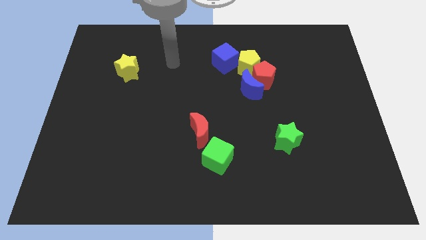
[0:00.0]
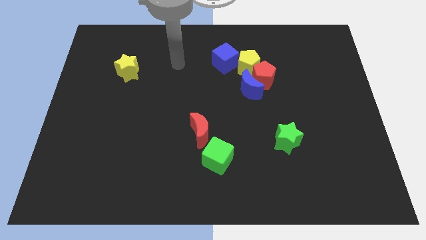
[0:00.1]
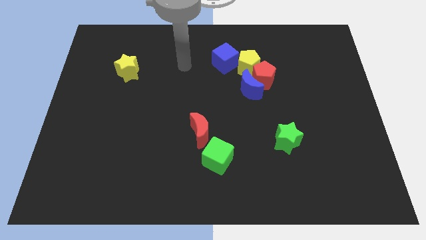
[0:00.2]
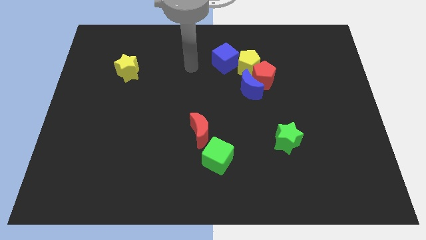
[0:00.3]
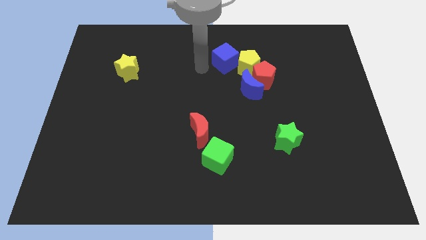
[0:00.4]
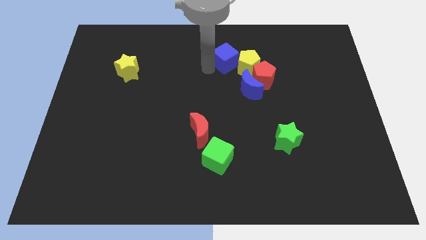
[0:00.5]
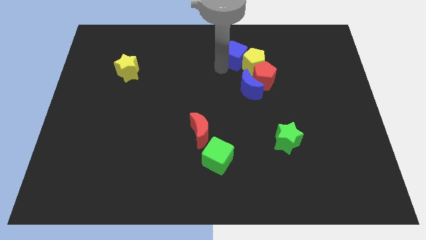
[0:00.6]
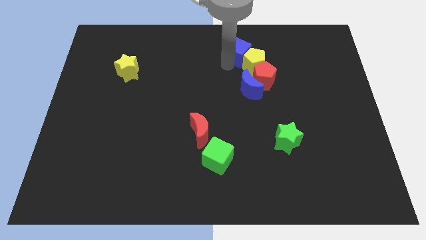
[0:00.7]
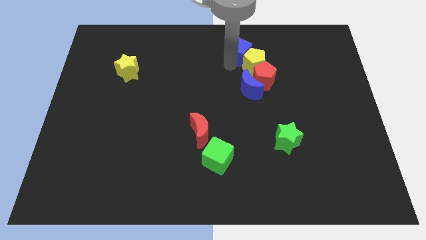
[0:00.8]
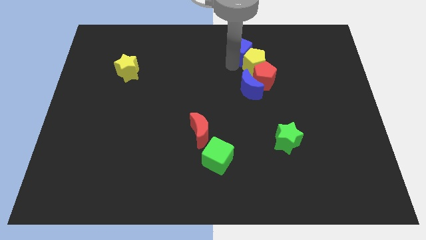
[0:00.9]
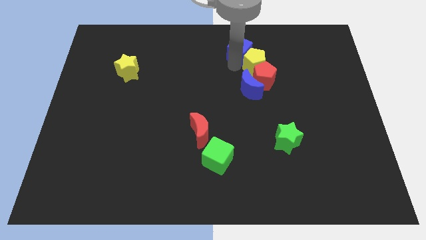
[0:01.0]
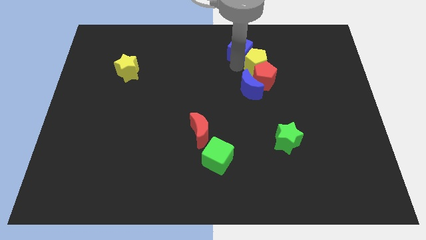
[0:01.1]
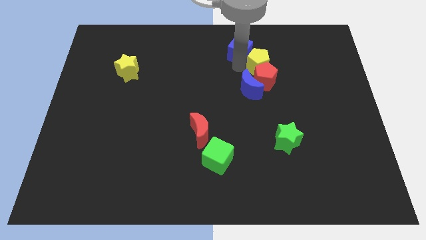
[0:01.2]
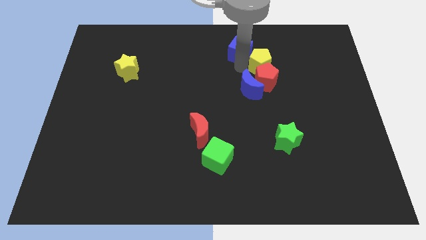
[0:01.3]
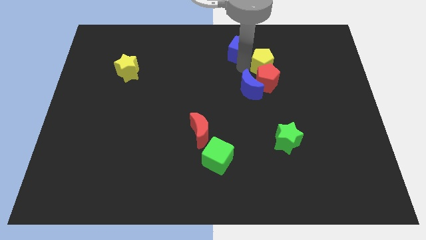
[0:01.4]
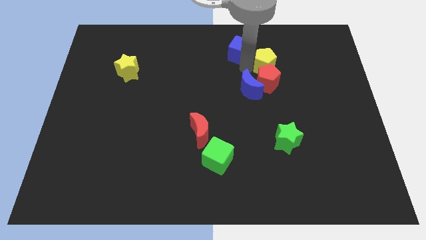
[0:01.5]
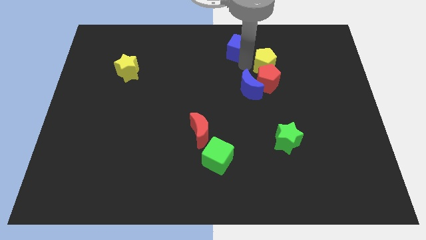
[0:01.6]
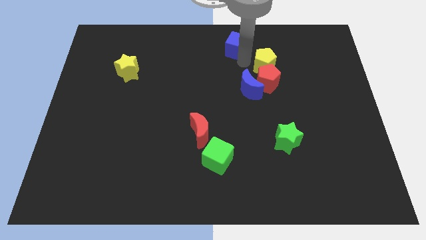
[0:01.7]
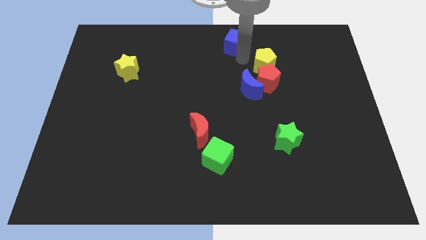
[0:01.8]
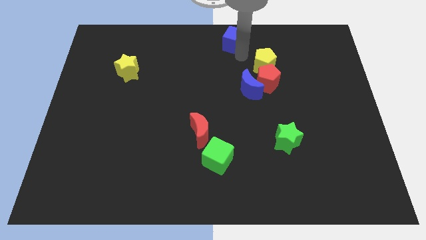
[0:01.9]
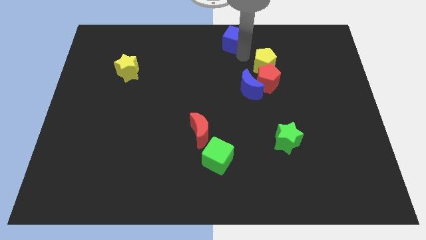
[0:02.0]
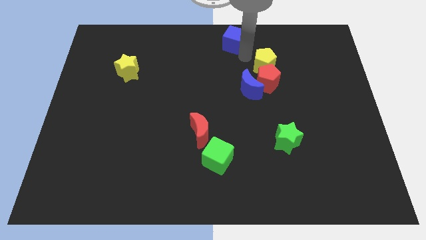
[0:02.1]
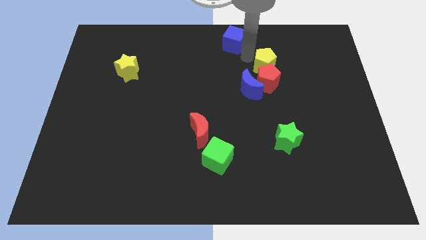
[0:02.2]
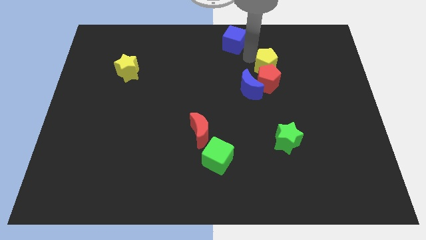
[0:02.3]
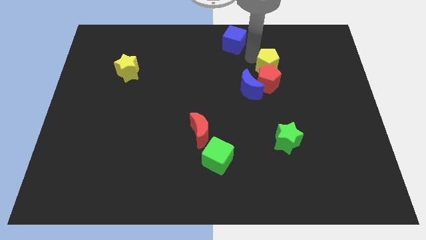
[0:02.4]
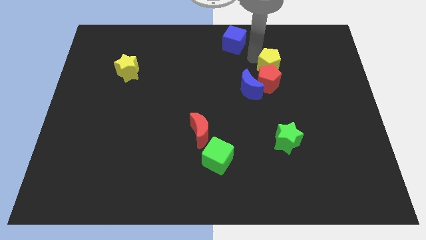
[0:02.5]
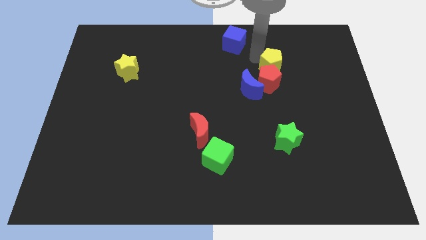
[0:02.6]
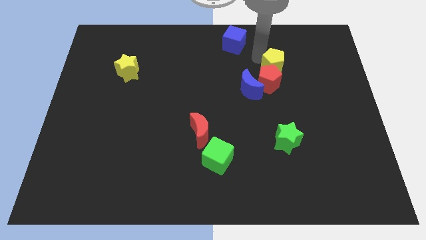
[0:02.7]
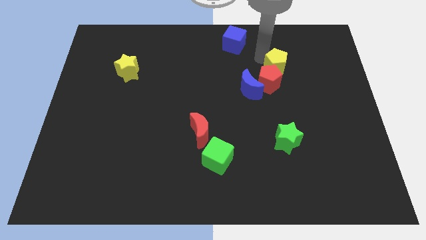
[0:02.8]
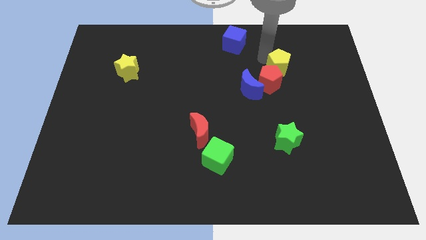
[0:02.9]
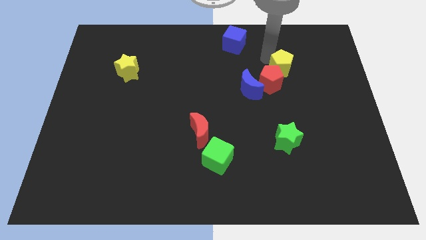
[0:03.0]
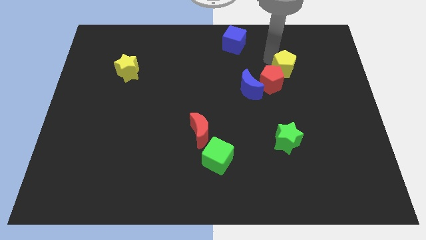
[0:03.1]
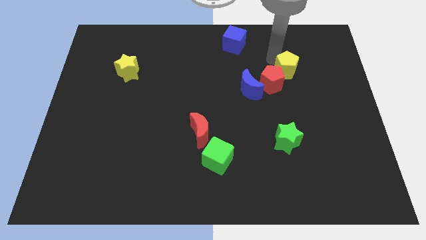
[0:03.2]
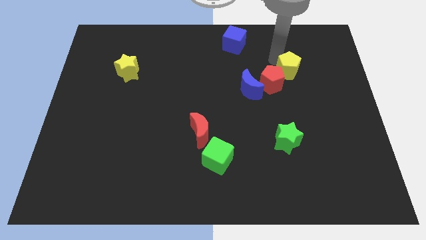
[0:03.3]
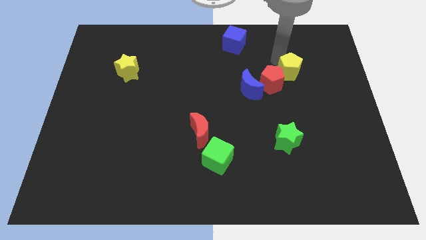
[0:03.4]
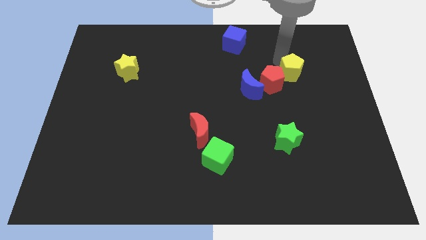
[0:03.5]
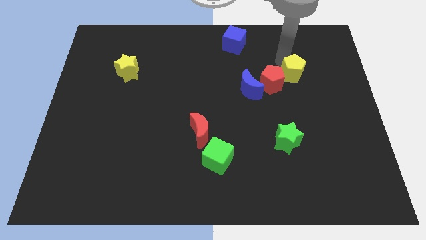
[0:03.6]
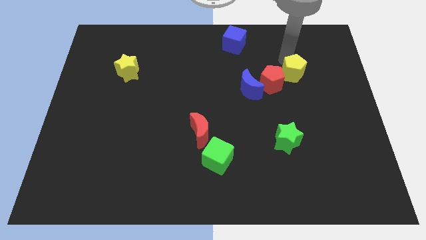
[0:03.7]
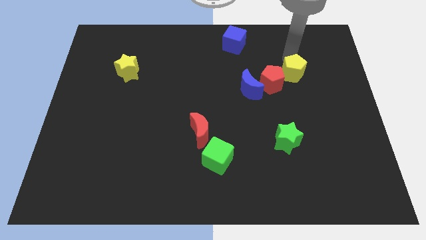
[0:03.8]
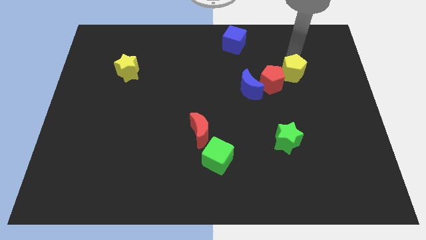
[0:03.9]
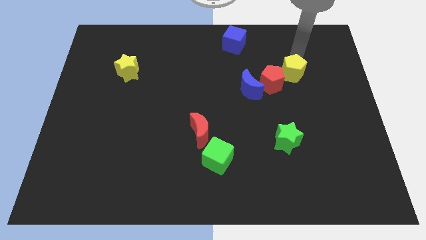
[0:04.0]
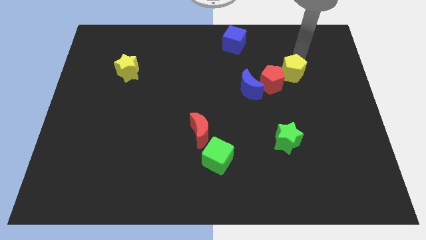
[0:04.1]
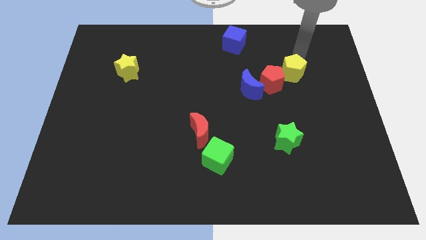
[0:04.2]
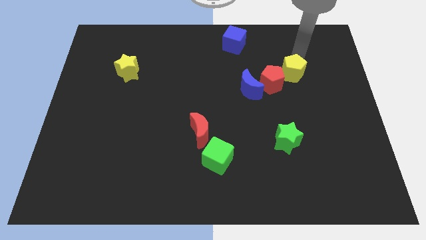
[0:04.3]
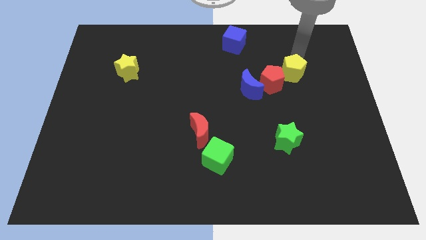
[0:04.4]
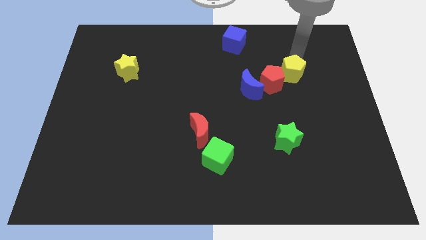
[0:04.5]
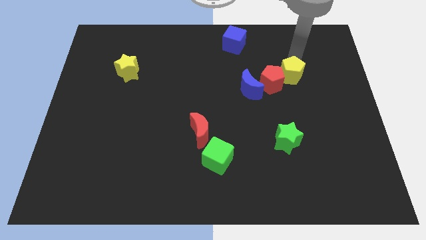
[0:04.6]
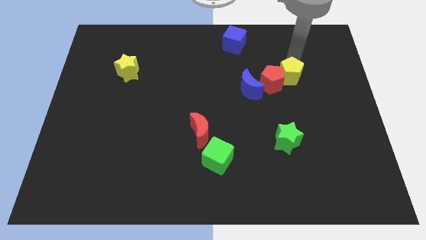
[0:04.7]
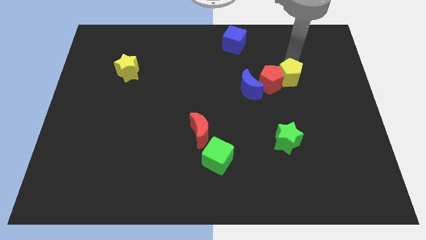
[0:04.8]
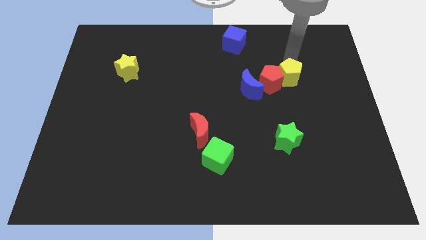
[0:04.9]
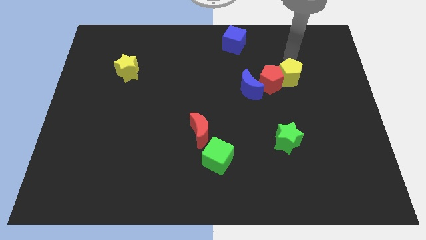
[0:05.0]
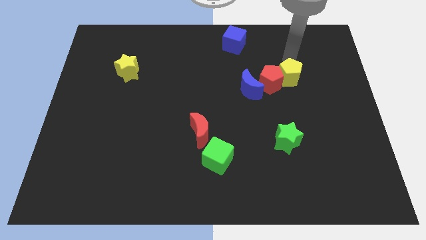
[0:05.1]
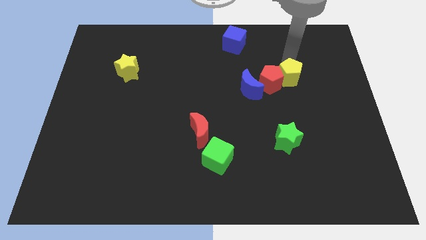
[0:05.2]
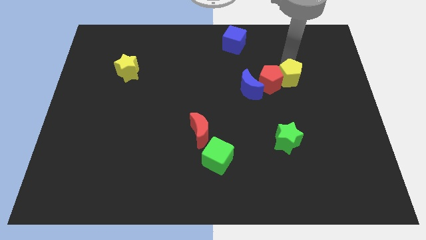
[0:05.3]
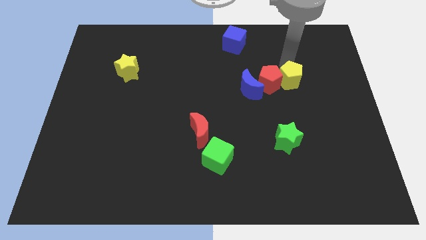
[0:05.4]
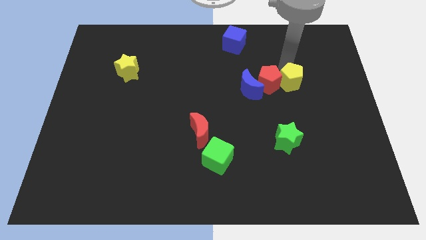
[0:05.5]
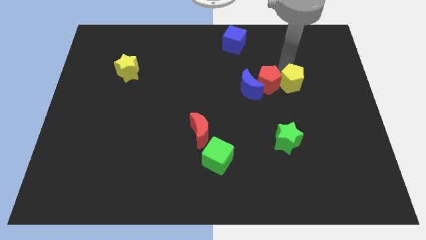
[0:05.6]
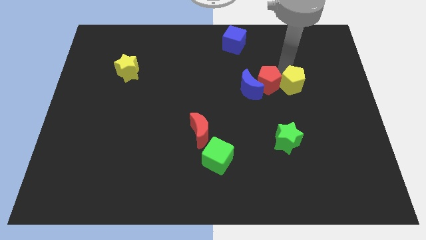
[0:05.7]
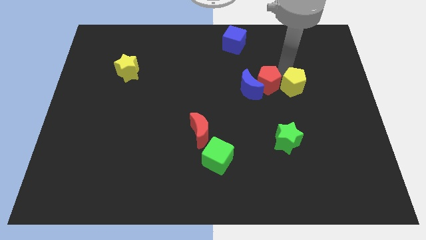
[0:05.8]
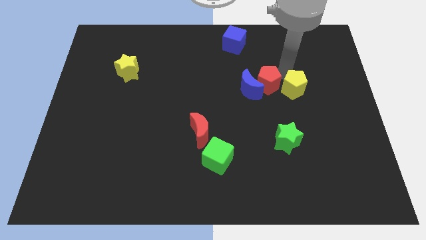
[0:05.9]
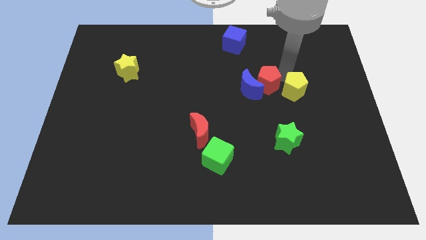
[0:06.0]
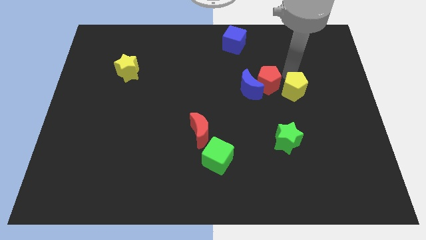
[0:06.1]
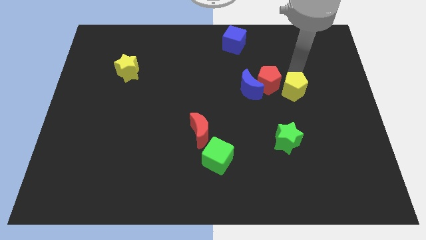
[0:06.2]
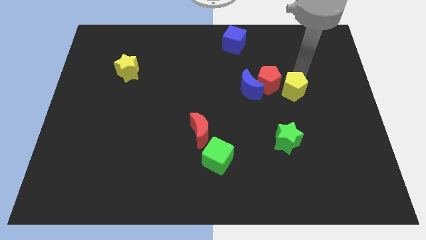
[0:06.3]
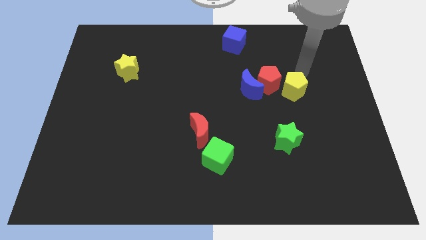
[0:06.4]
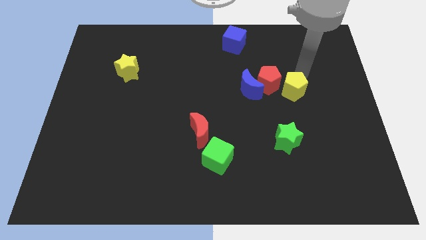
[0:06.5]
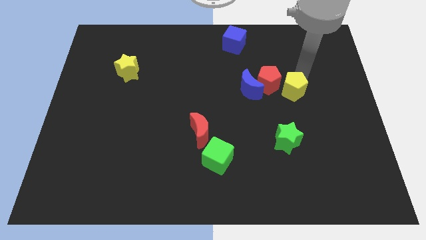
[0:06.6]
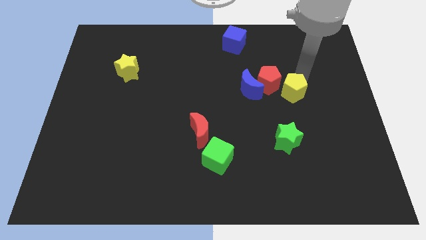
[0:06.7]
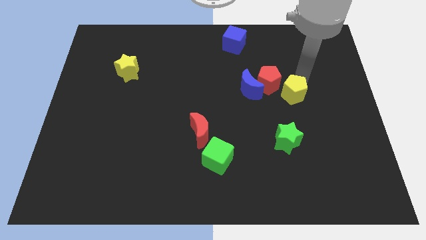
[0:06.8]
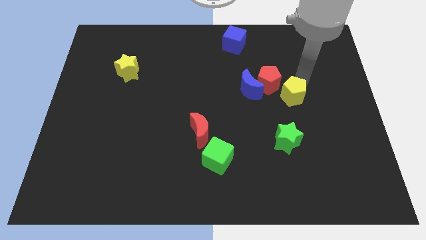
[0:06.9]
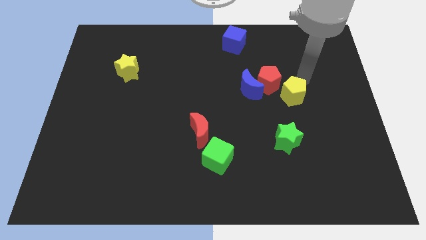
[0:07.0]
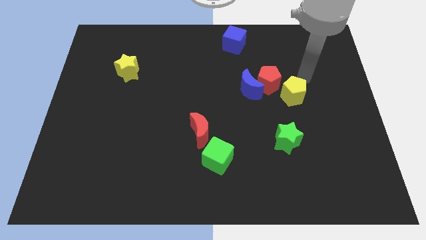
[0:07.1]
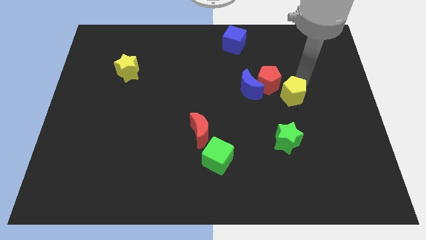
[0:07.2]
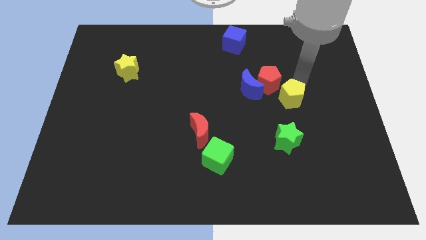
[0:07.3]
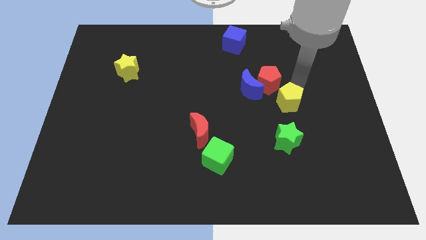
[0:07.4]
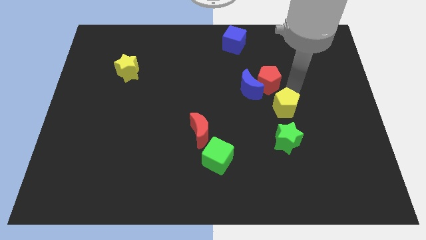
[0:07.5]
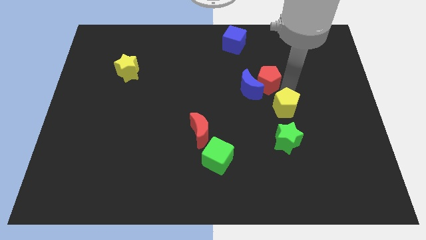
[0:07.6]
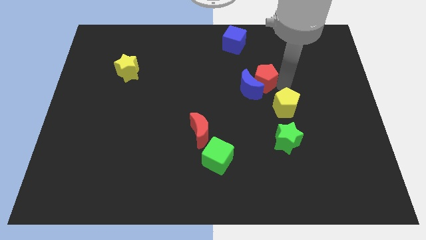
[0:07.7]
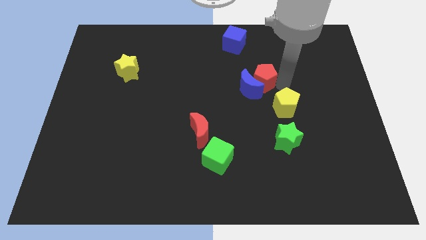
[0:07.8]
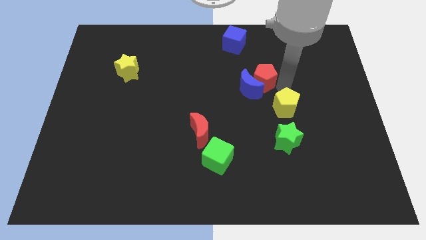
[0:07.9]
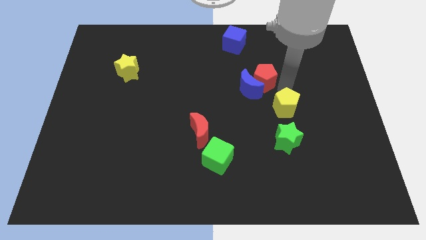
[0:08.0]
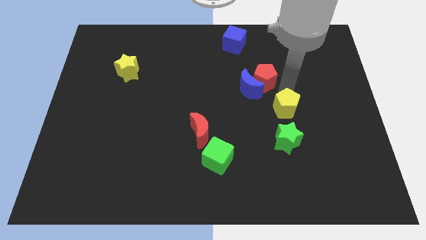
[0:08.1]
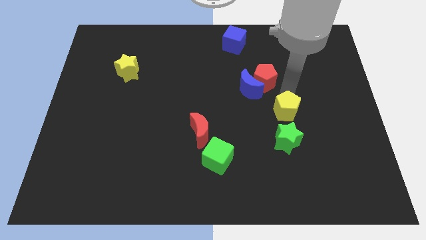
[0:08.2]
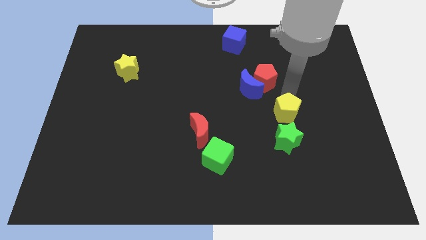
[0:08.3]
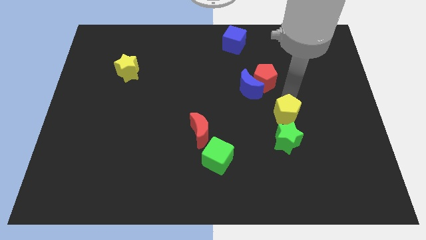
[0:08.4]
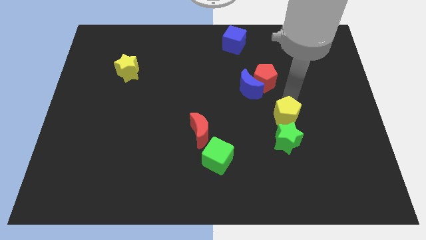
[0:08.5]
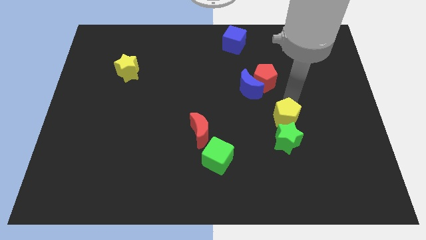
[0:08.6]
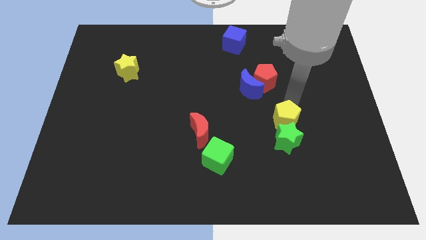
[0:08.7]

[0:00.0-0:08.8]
put the yellow pentagon next to the green star
